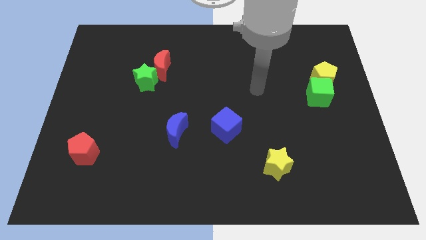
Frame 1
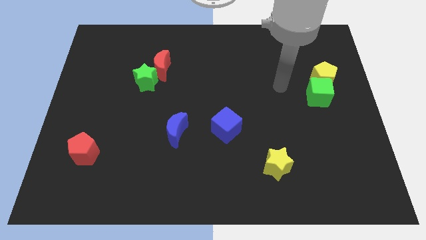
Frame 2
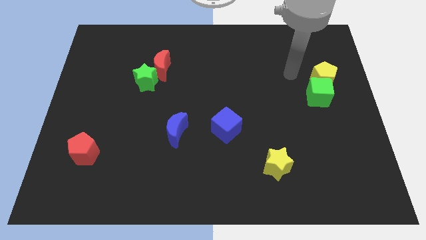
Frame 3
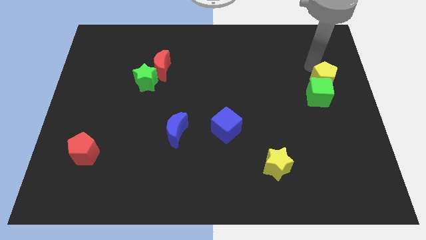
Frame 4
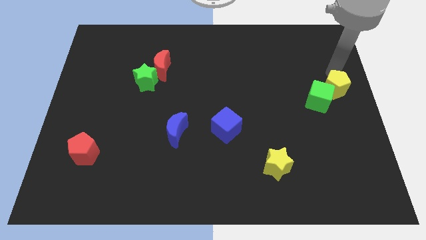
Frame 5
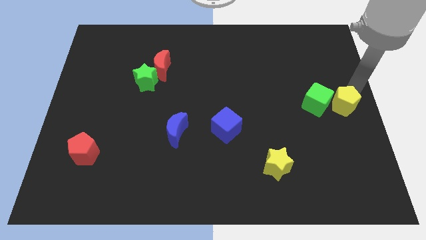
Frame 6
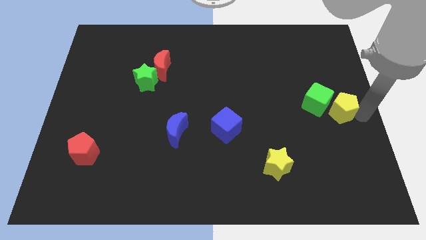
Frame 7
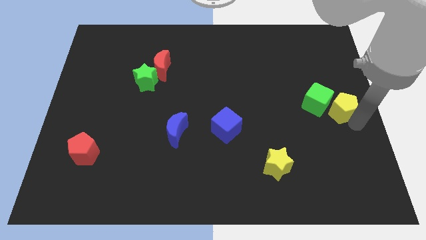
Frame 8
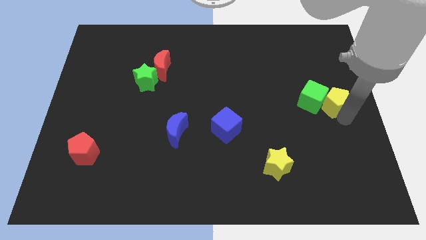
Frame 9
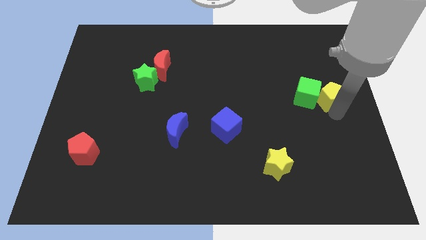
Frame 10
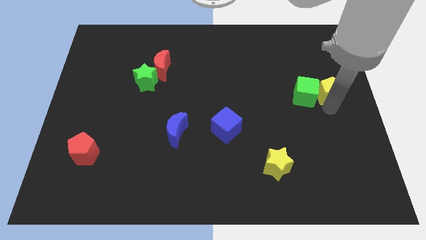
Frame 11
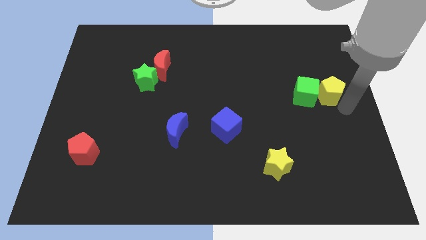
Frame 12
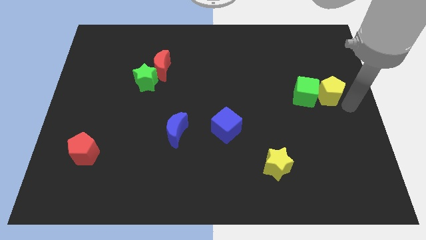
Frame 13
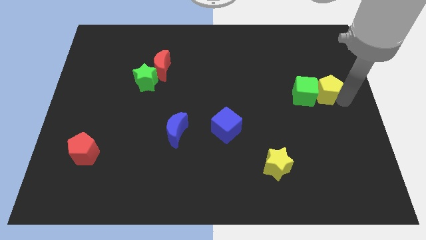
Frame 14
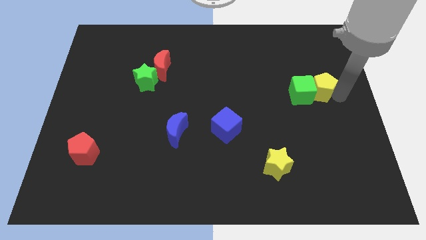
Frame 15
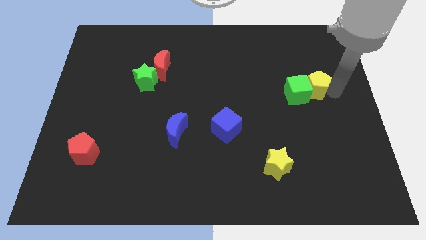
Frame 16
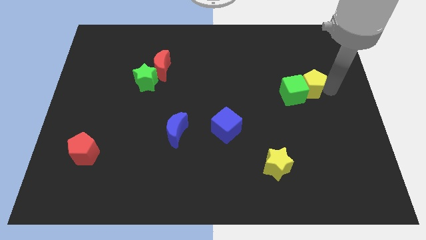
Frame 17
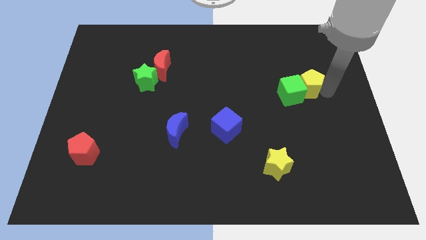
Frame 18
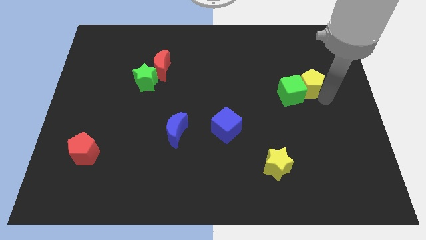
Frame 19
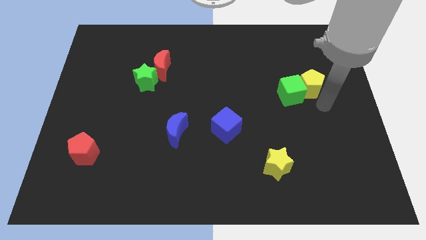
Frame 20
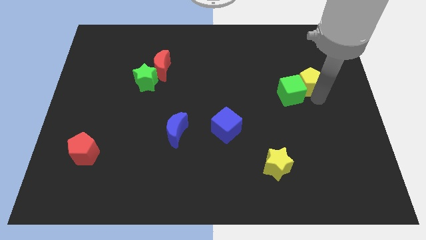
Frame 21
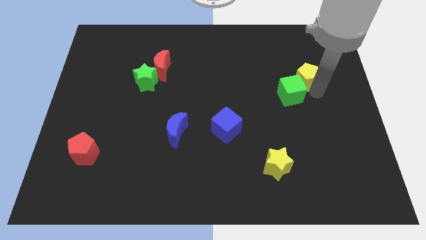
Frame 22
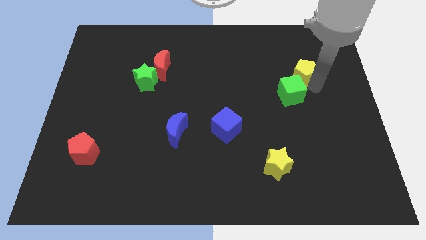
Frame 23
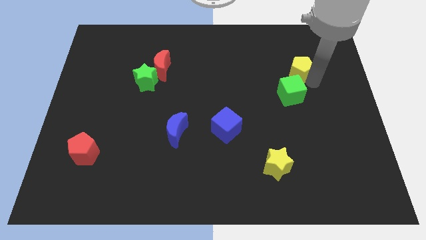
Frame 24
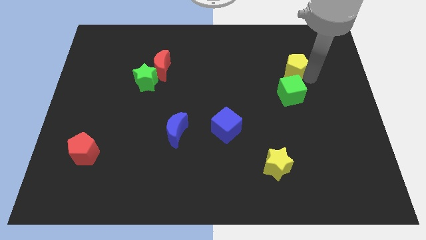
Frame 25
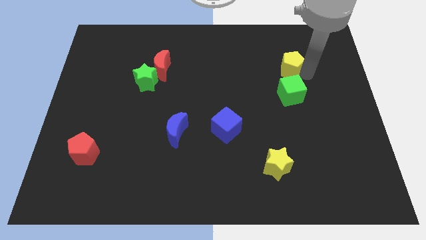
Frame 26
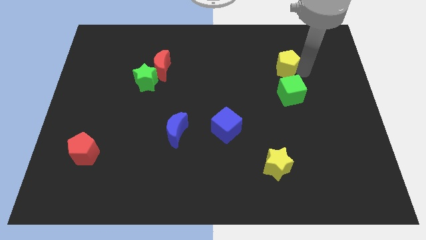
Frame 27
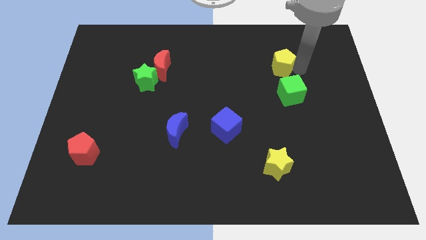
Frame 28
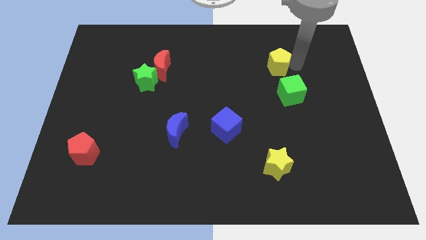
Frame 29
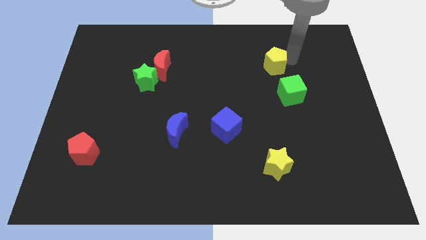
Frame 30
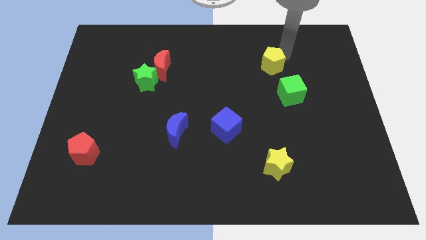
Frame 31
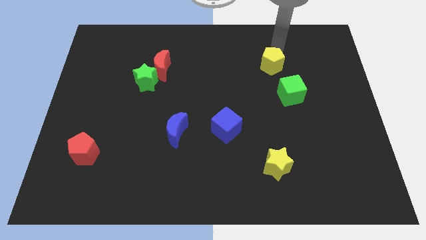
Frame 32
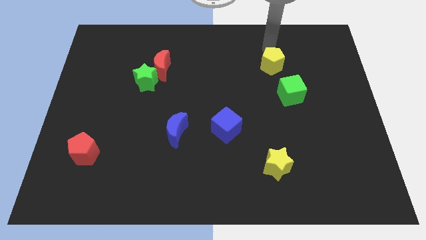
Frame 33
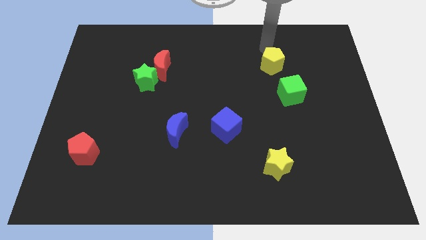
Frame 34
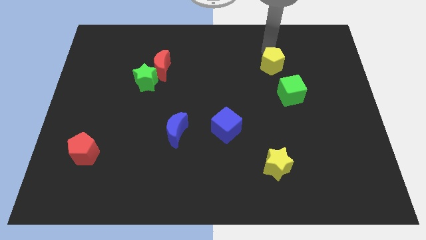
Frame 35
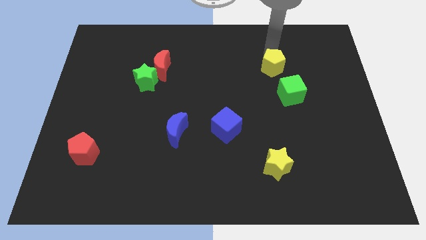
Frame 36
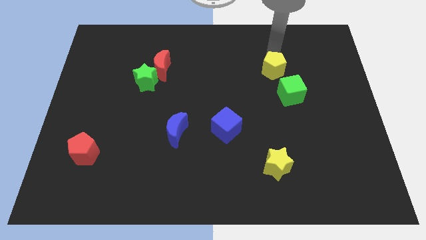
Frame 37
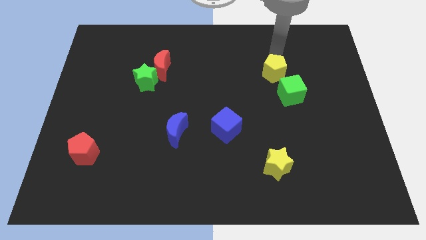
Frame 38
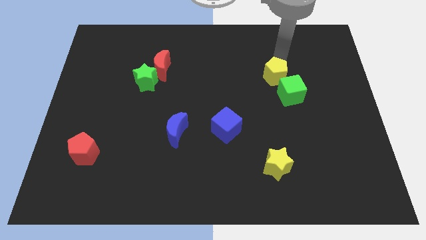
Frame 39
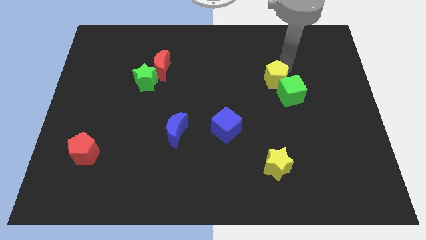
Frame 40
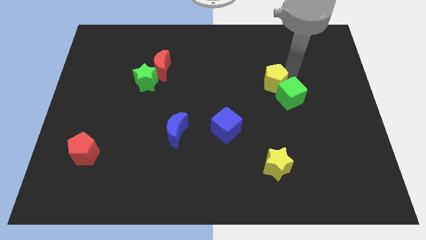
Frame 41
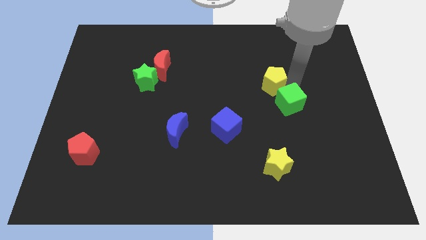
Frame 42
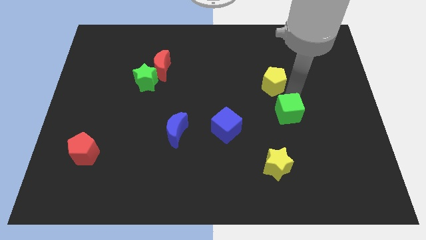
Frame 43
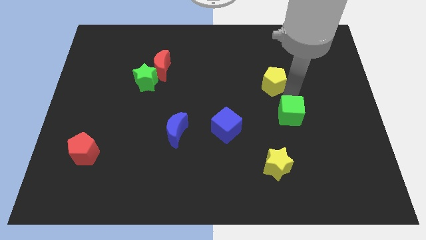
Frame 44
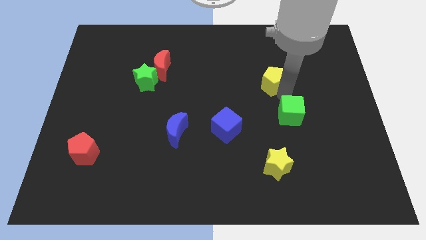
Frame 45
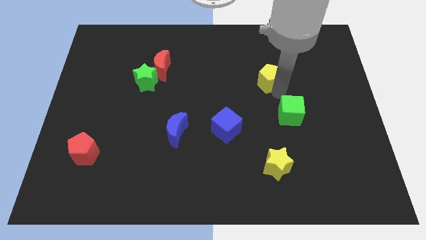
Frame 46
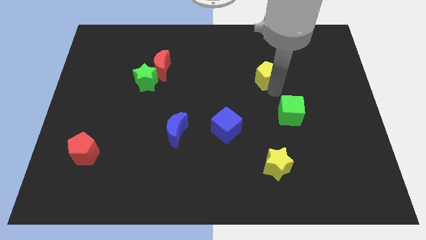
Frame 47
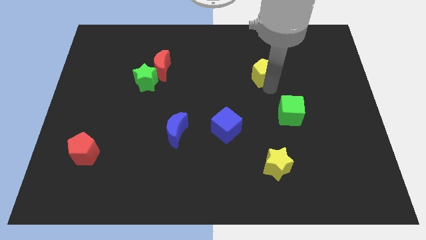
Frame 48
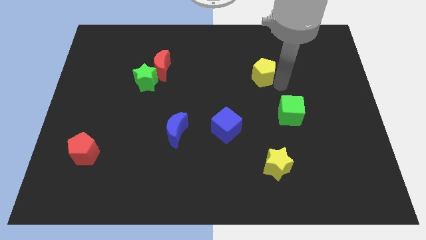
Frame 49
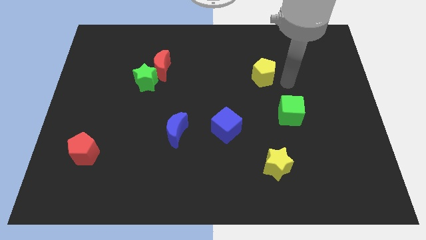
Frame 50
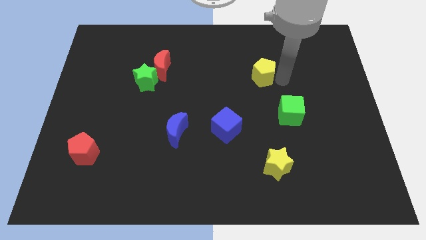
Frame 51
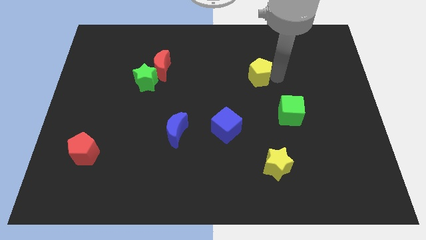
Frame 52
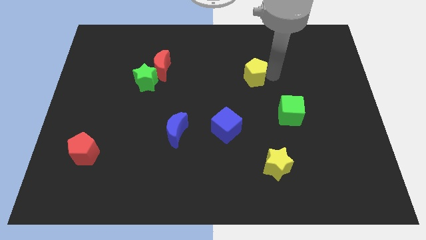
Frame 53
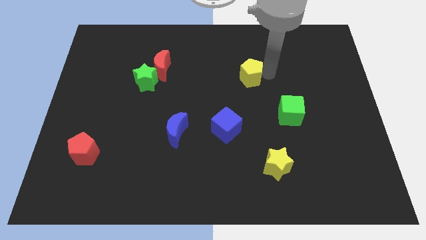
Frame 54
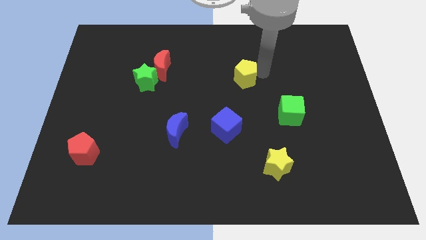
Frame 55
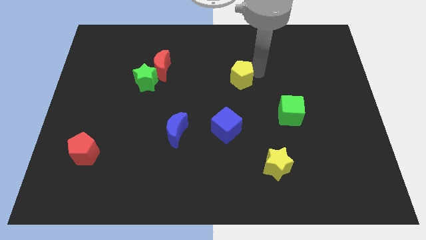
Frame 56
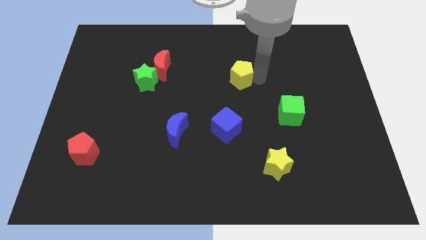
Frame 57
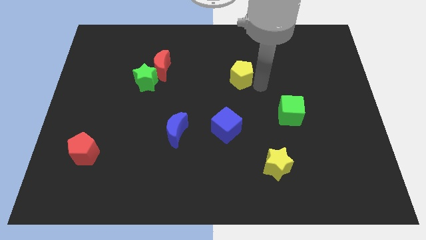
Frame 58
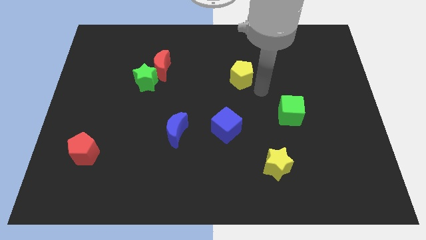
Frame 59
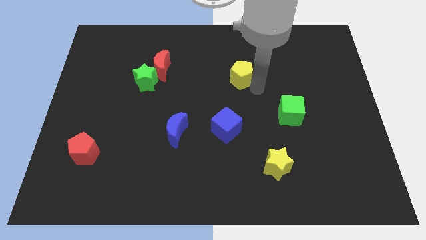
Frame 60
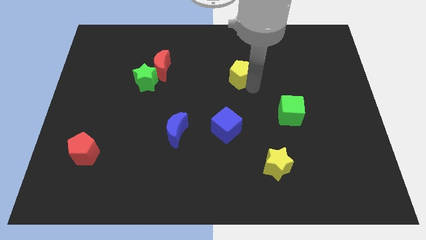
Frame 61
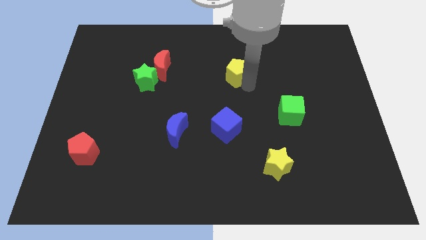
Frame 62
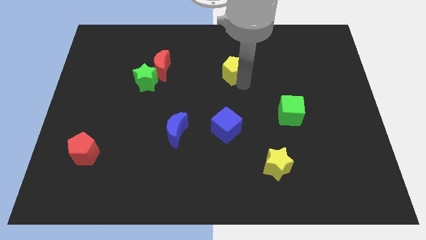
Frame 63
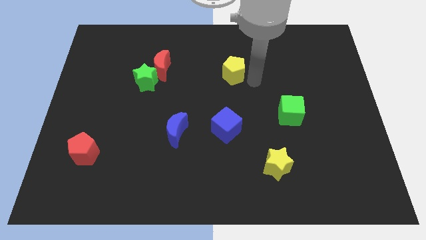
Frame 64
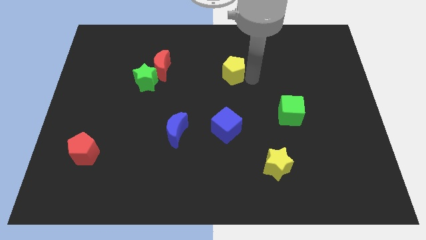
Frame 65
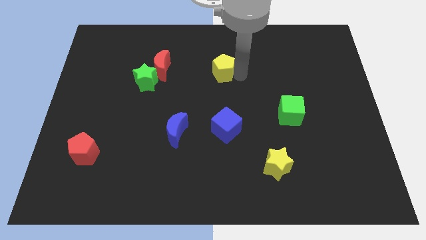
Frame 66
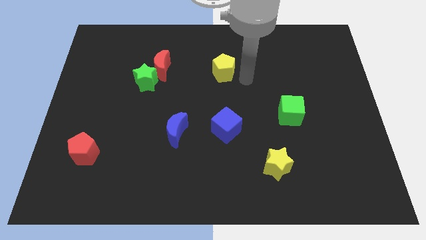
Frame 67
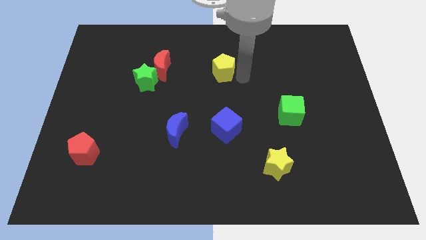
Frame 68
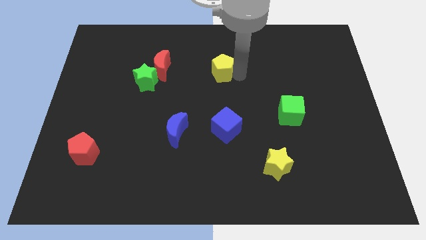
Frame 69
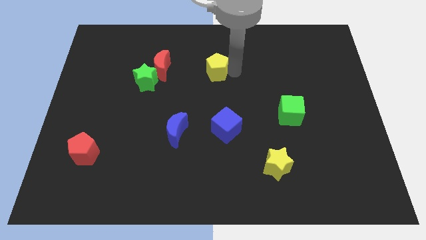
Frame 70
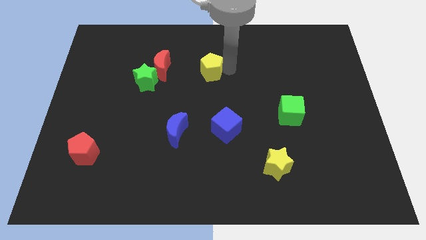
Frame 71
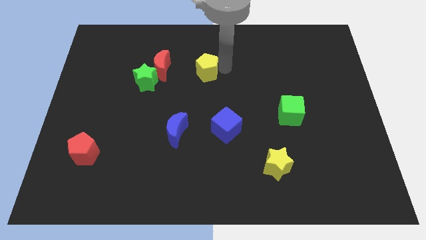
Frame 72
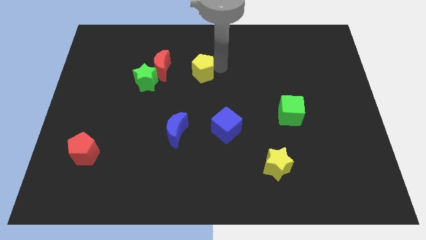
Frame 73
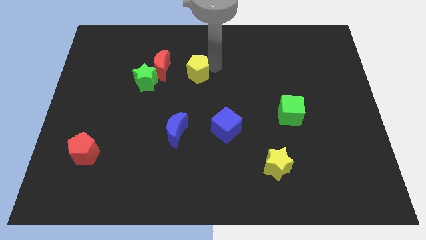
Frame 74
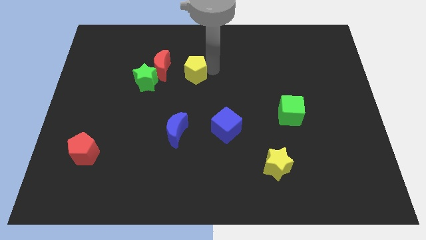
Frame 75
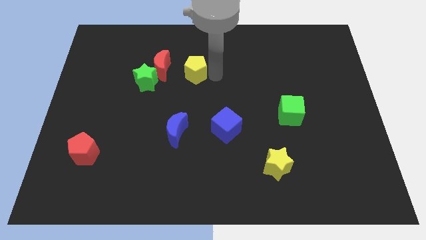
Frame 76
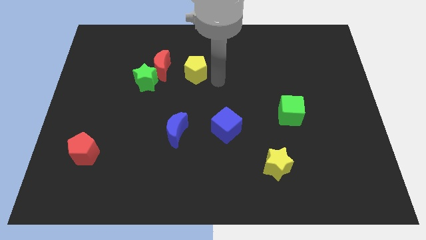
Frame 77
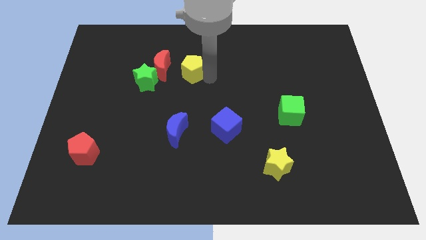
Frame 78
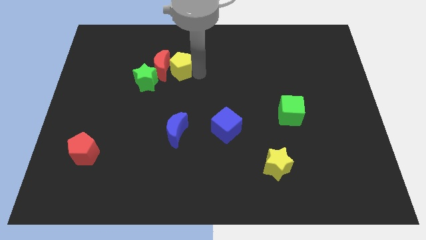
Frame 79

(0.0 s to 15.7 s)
push the yellow pentagon towards the red moon

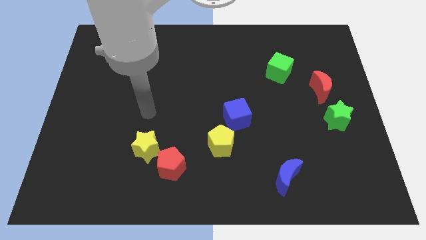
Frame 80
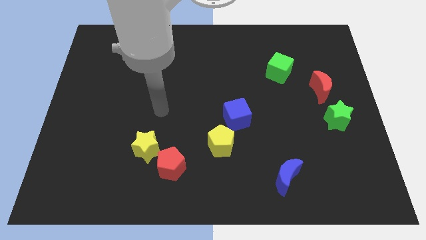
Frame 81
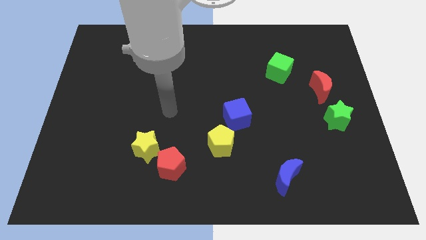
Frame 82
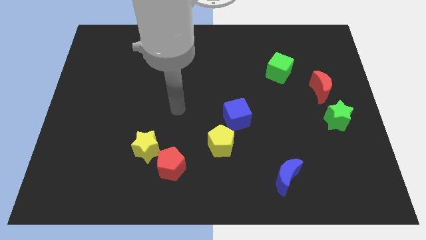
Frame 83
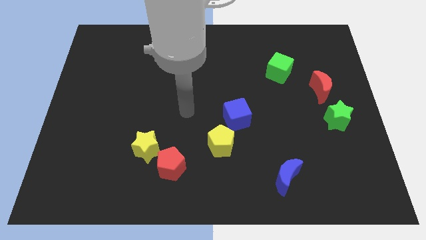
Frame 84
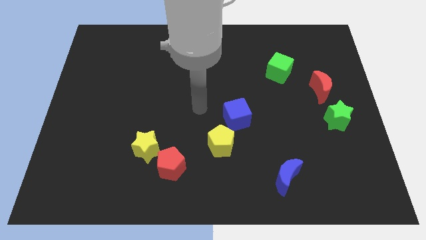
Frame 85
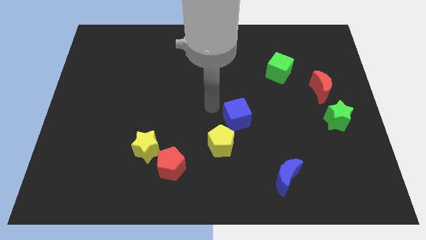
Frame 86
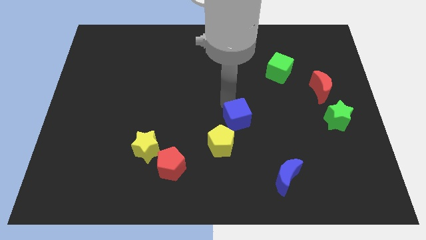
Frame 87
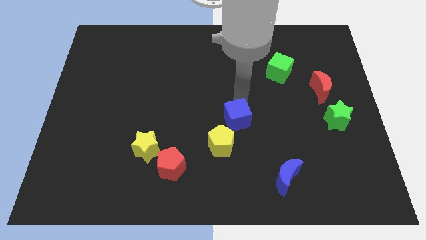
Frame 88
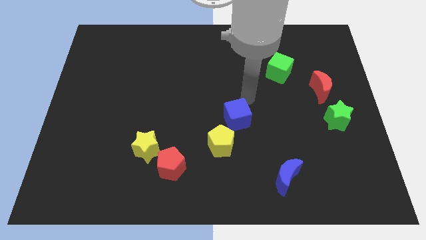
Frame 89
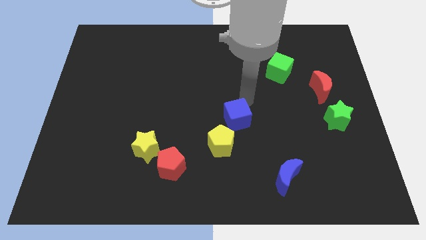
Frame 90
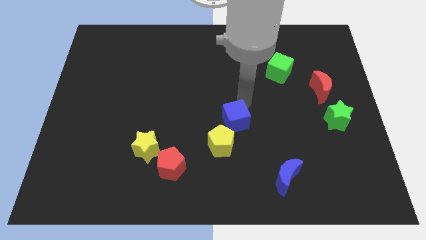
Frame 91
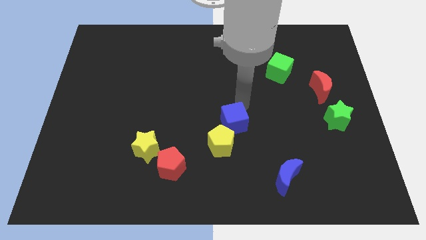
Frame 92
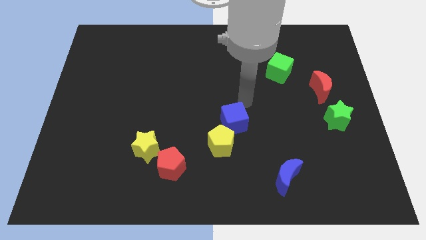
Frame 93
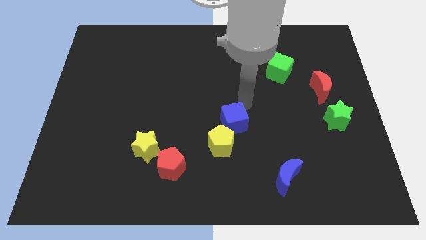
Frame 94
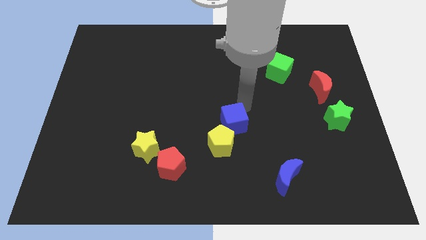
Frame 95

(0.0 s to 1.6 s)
slide the blue cube close to the yellow pentagon
